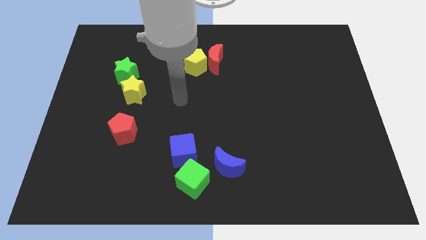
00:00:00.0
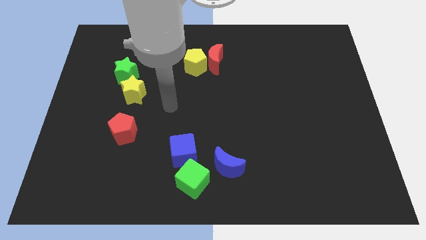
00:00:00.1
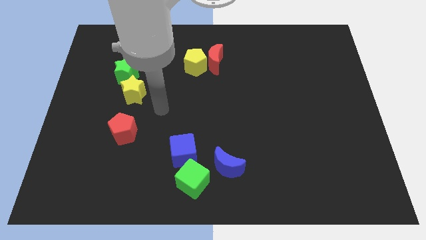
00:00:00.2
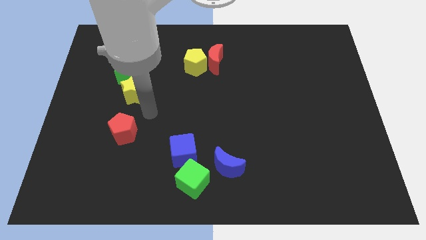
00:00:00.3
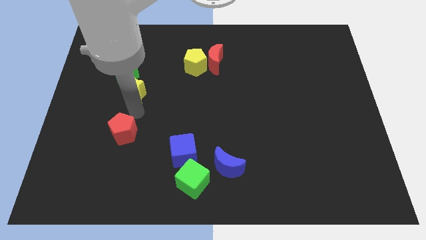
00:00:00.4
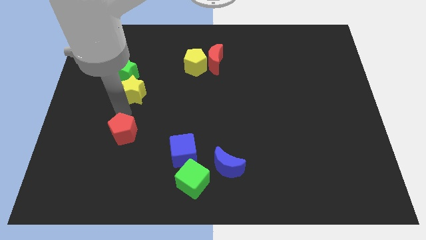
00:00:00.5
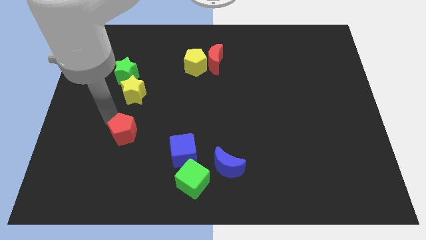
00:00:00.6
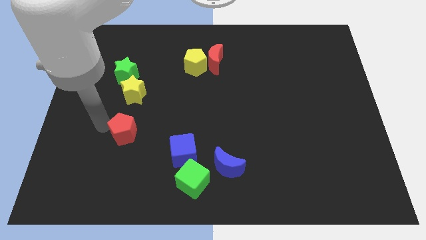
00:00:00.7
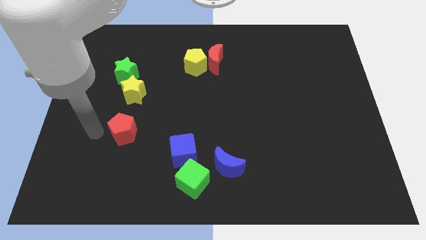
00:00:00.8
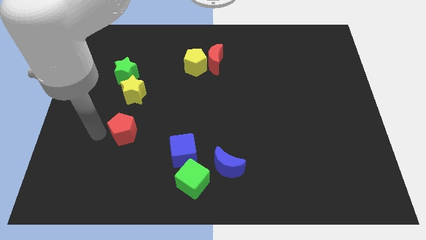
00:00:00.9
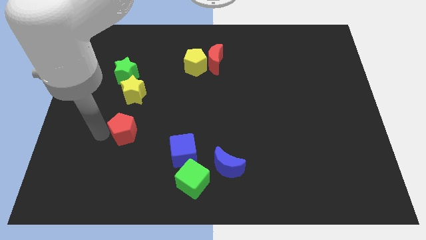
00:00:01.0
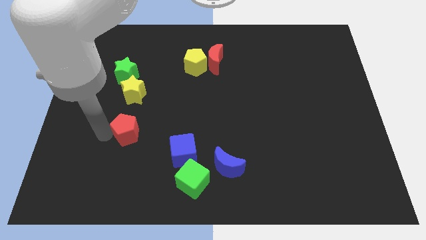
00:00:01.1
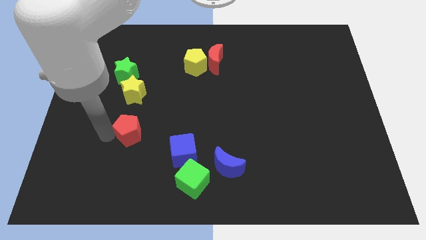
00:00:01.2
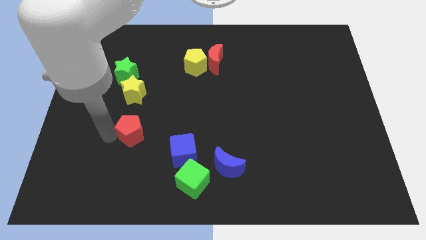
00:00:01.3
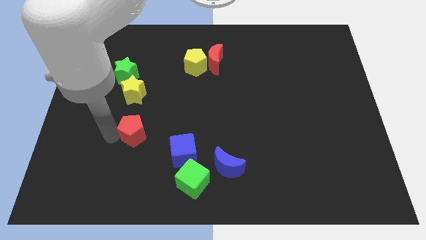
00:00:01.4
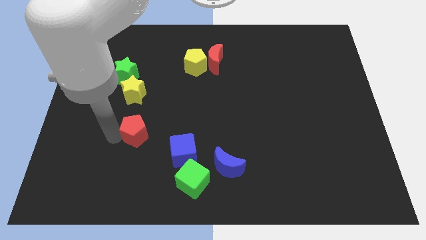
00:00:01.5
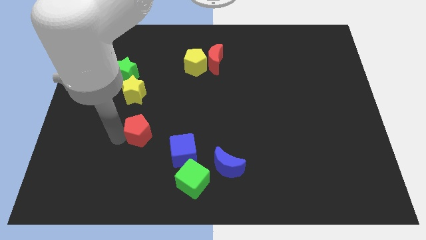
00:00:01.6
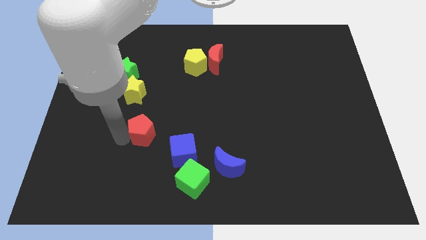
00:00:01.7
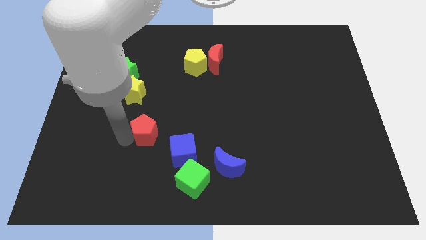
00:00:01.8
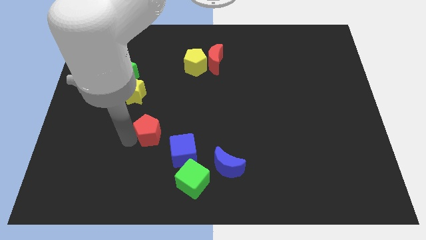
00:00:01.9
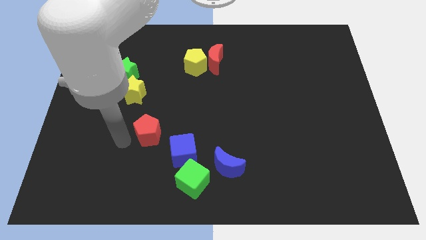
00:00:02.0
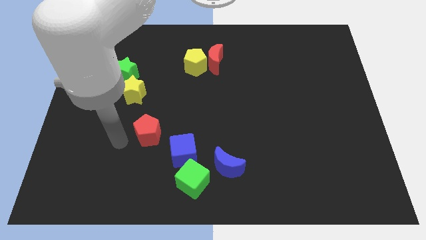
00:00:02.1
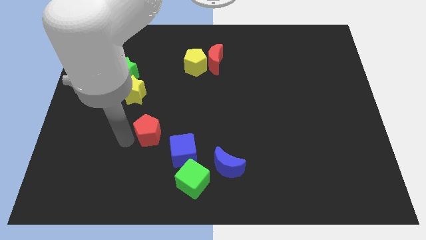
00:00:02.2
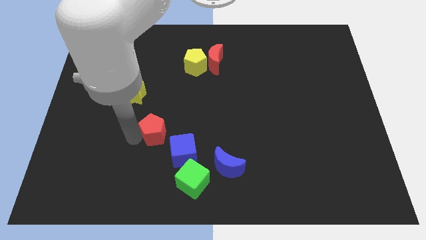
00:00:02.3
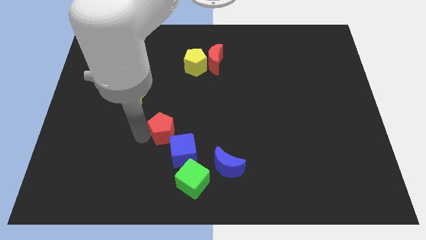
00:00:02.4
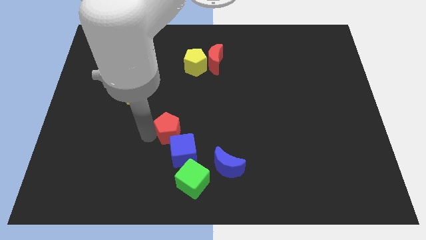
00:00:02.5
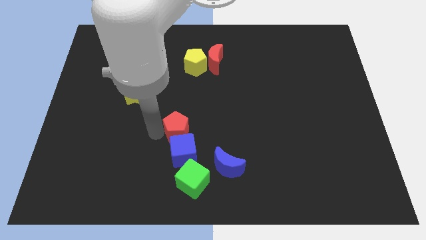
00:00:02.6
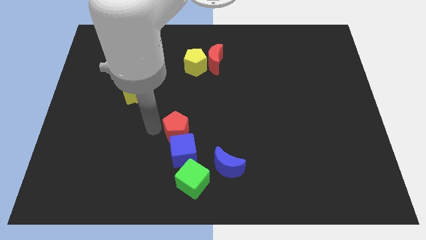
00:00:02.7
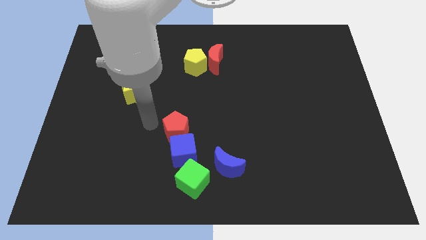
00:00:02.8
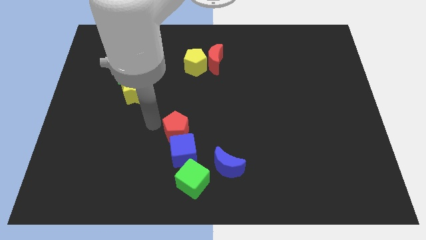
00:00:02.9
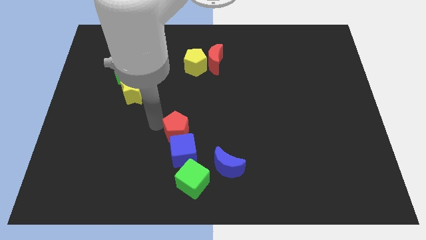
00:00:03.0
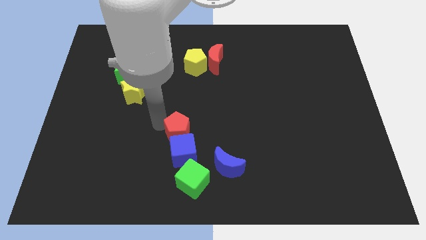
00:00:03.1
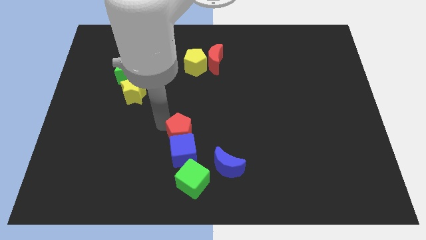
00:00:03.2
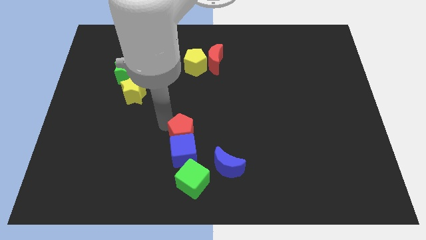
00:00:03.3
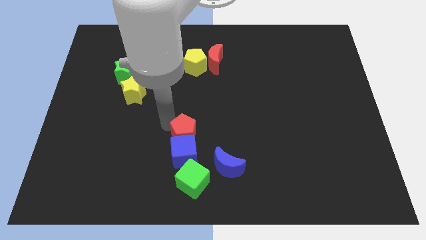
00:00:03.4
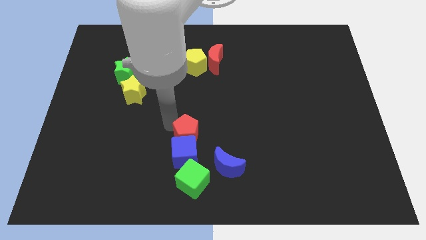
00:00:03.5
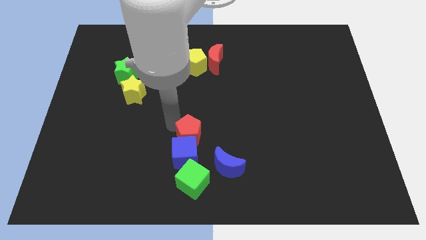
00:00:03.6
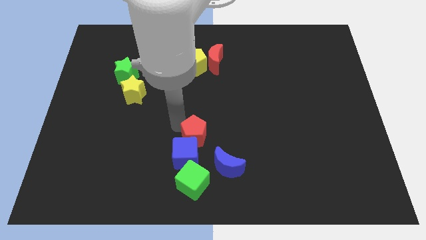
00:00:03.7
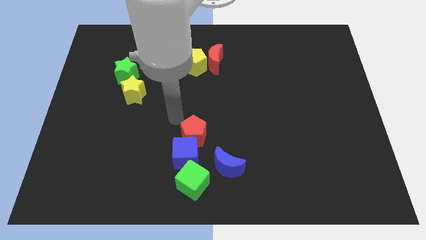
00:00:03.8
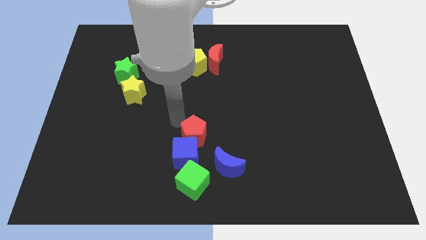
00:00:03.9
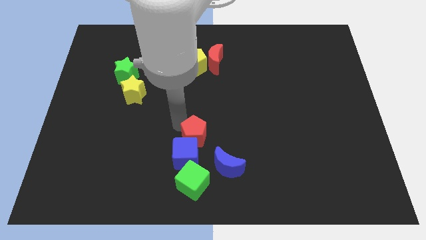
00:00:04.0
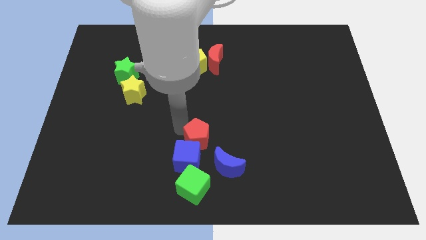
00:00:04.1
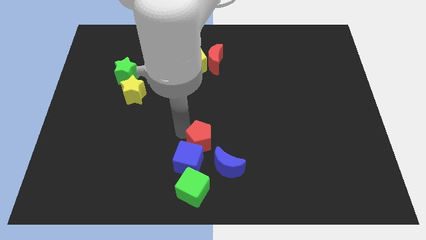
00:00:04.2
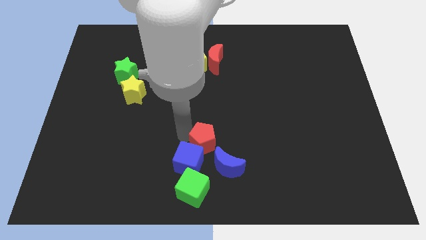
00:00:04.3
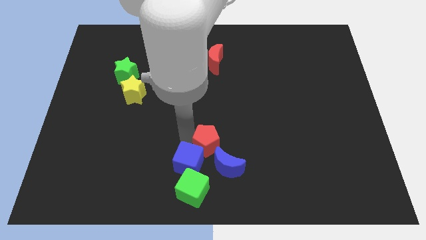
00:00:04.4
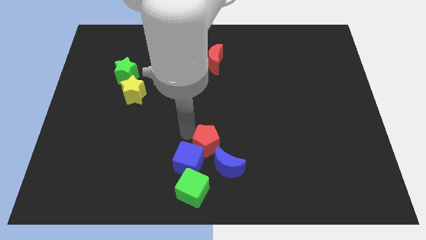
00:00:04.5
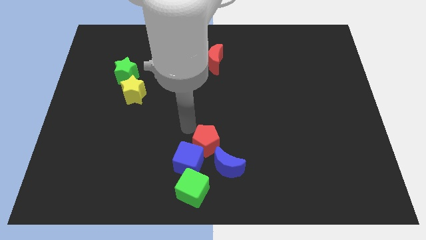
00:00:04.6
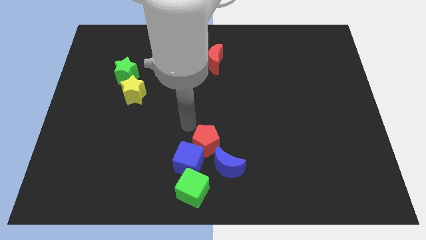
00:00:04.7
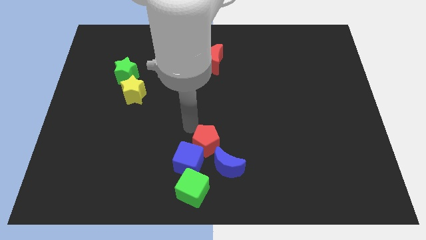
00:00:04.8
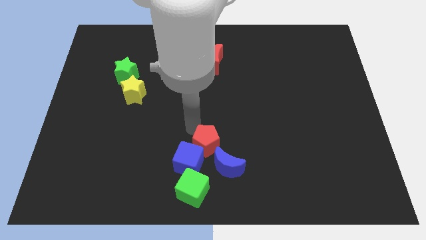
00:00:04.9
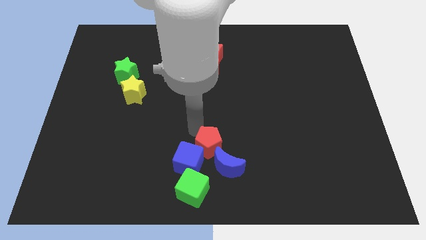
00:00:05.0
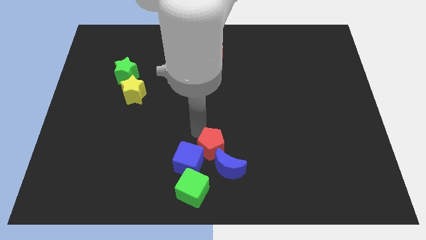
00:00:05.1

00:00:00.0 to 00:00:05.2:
slide the red pentagon towards the blue moon
